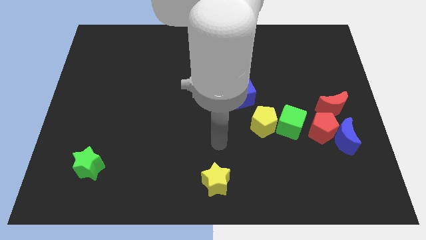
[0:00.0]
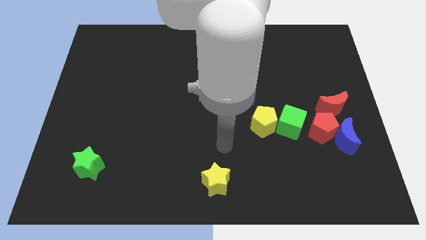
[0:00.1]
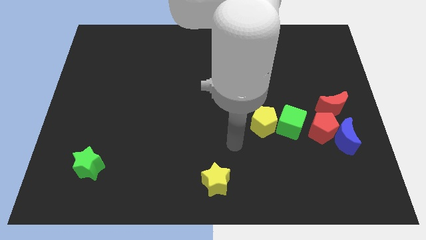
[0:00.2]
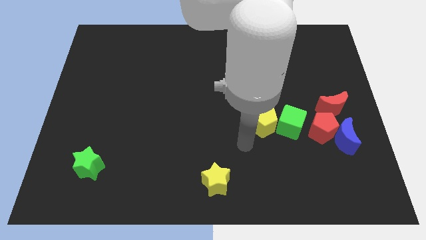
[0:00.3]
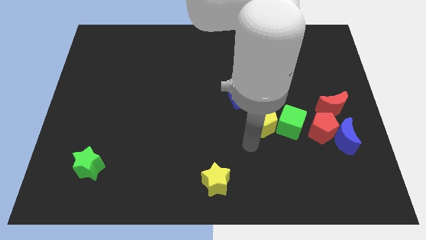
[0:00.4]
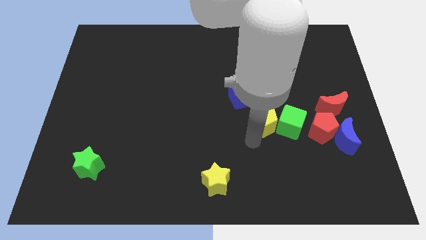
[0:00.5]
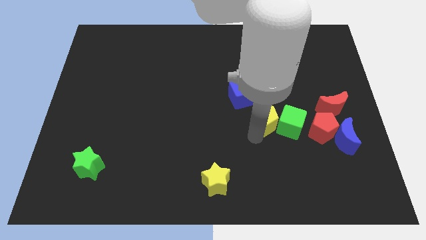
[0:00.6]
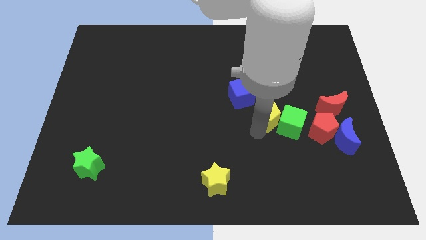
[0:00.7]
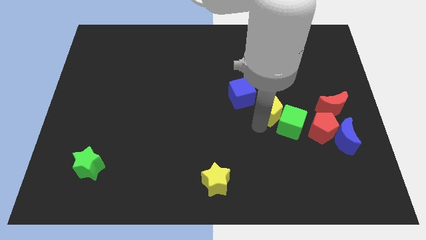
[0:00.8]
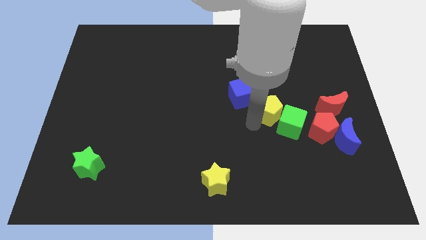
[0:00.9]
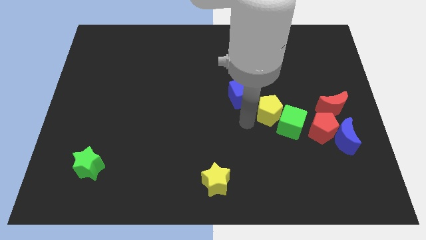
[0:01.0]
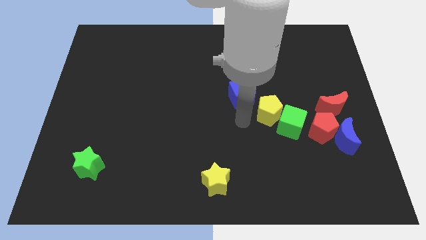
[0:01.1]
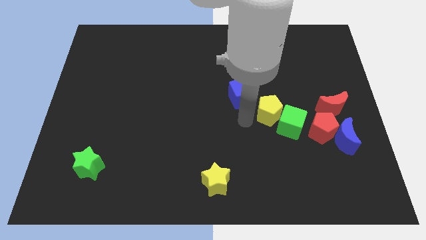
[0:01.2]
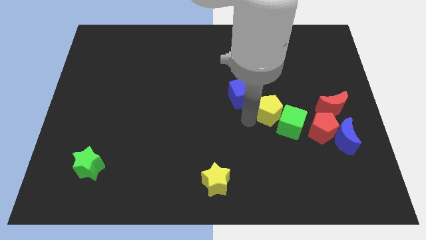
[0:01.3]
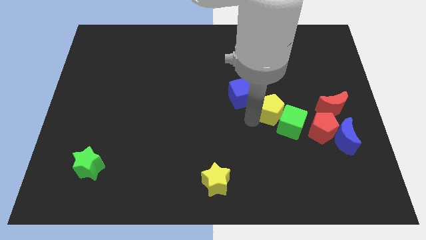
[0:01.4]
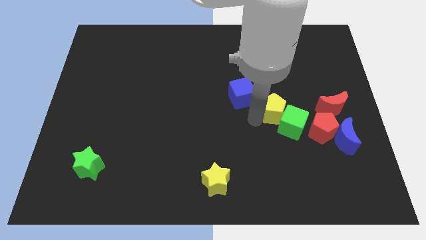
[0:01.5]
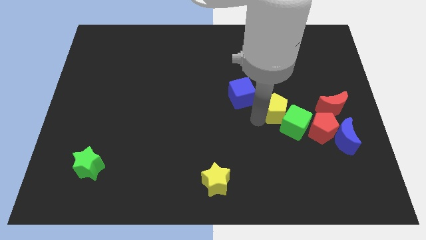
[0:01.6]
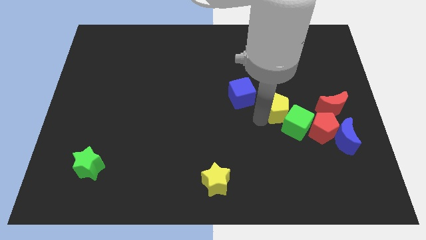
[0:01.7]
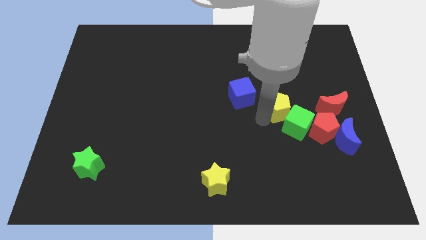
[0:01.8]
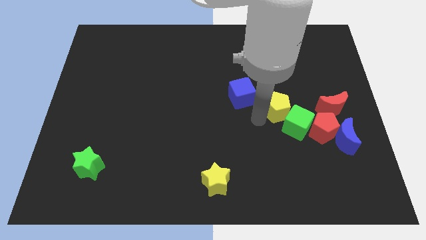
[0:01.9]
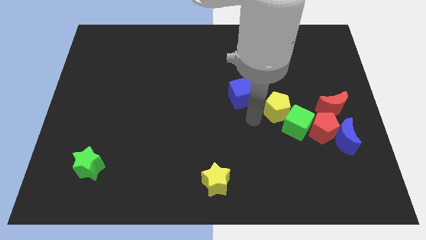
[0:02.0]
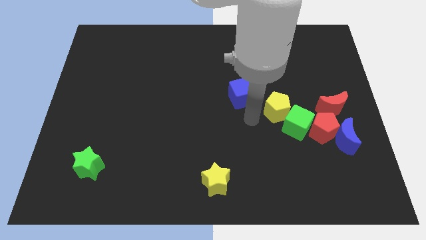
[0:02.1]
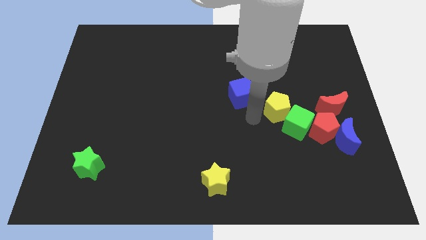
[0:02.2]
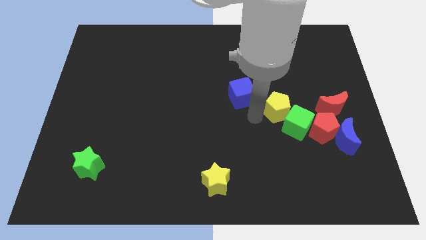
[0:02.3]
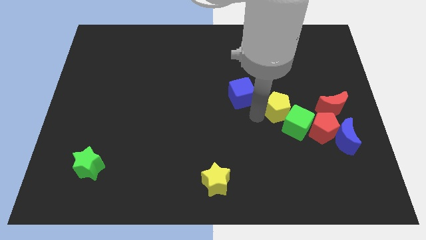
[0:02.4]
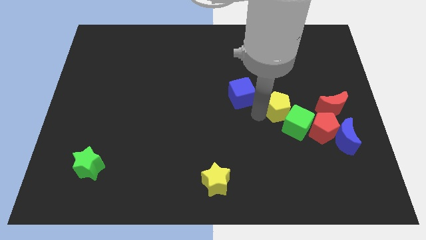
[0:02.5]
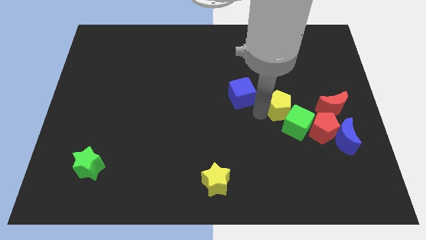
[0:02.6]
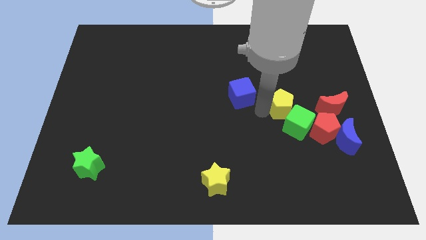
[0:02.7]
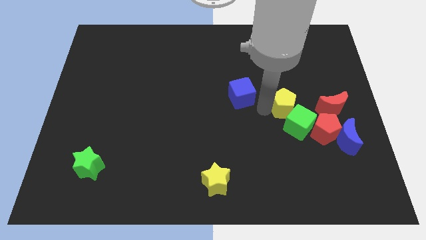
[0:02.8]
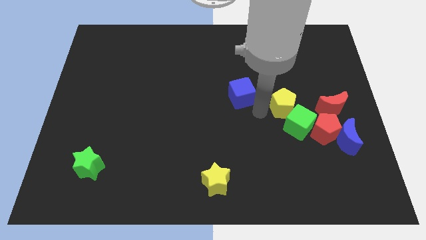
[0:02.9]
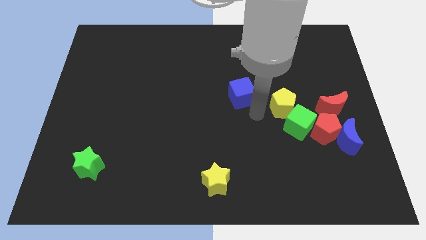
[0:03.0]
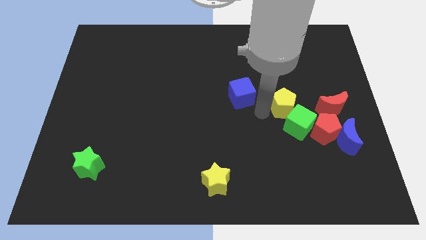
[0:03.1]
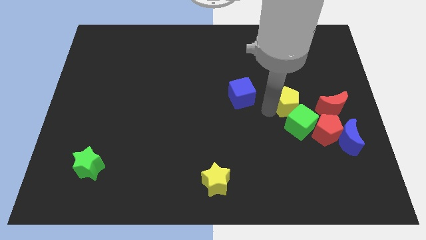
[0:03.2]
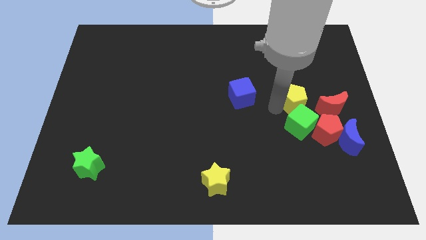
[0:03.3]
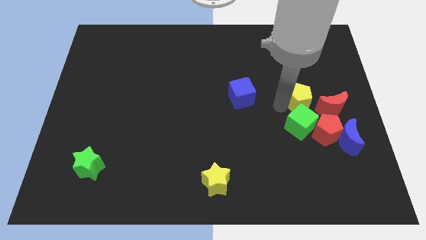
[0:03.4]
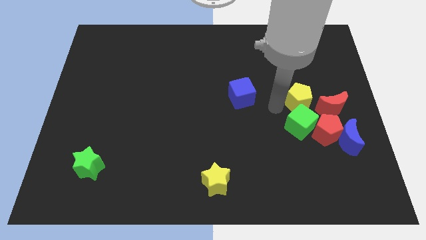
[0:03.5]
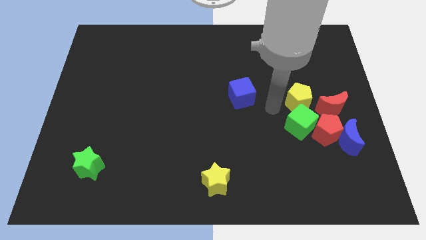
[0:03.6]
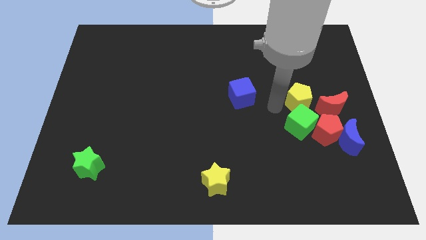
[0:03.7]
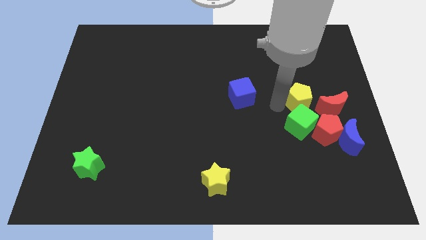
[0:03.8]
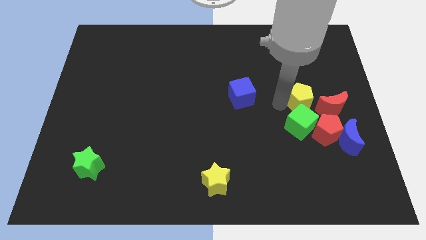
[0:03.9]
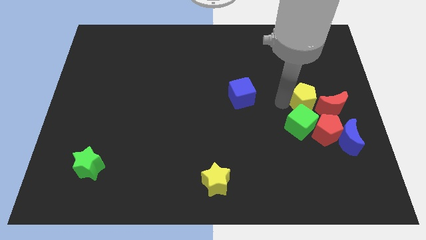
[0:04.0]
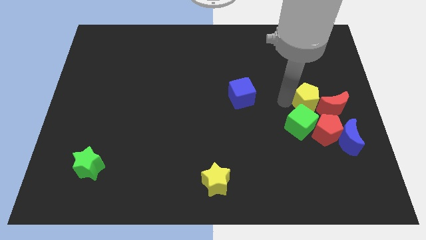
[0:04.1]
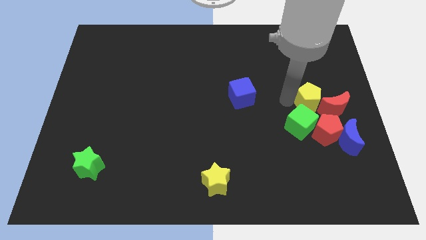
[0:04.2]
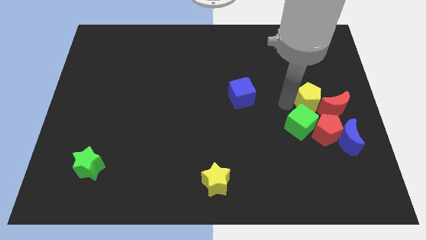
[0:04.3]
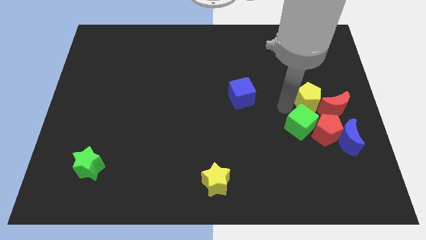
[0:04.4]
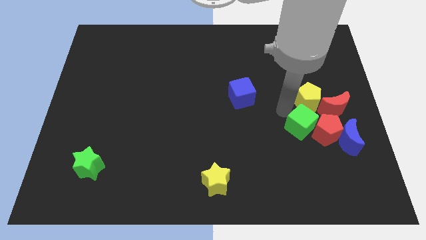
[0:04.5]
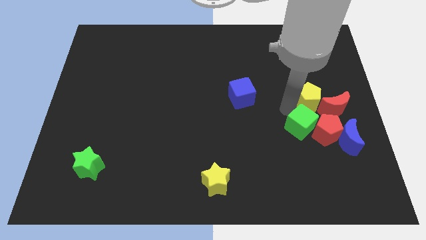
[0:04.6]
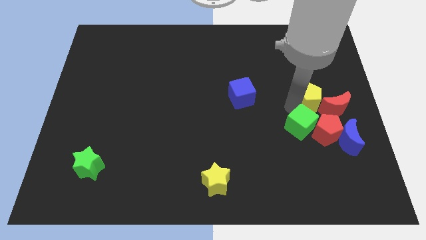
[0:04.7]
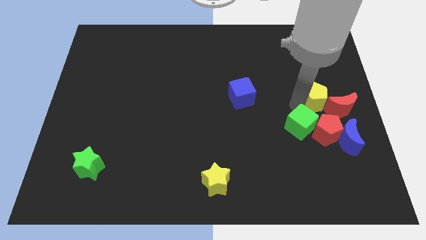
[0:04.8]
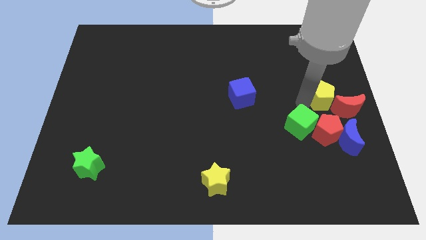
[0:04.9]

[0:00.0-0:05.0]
move the yellow pentagon to the right side

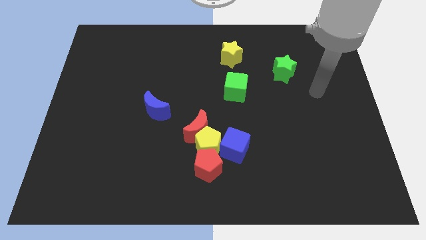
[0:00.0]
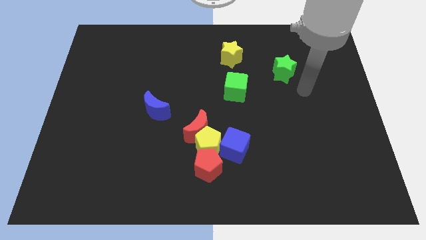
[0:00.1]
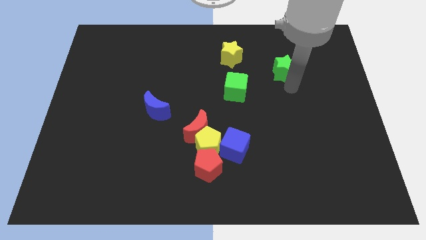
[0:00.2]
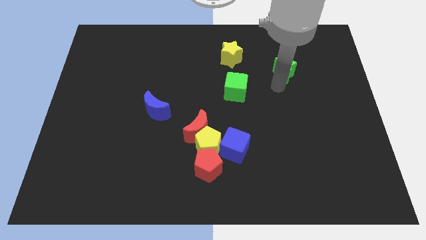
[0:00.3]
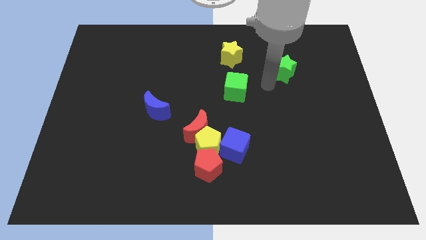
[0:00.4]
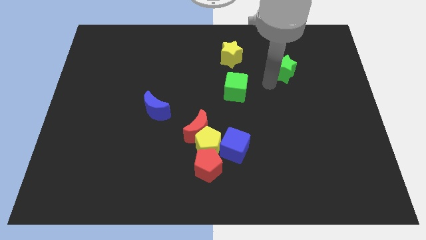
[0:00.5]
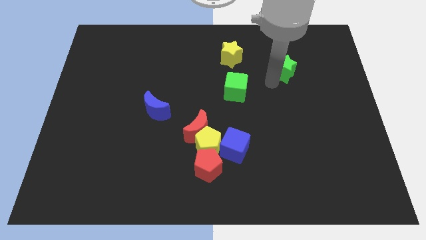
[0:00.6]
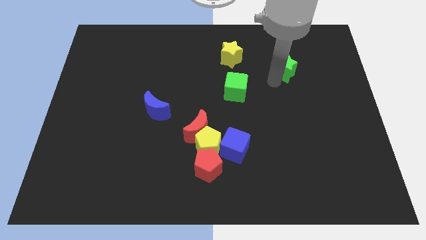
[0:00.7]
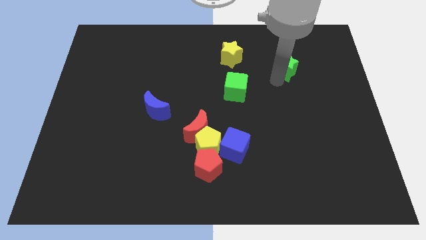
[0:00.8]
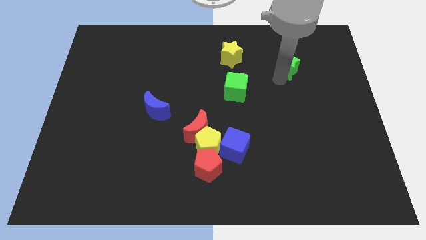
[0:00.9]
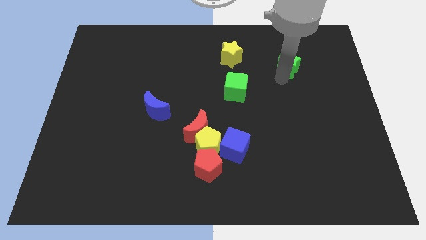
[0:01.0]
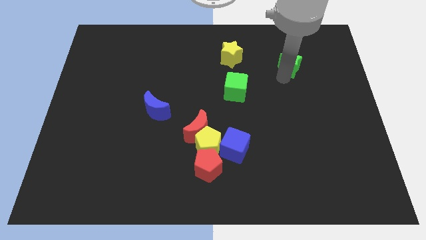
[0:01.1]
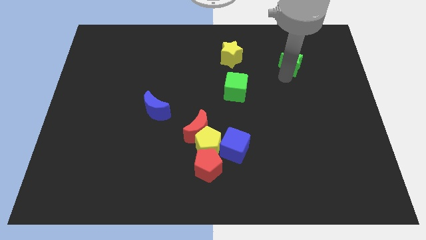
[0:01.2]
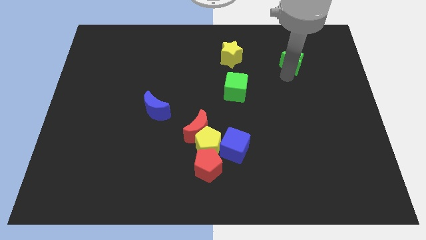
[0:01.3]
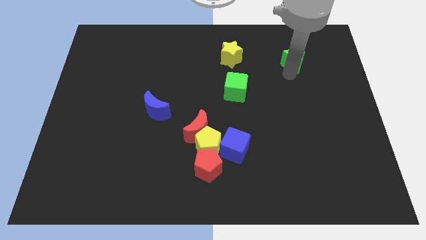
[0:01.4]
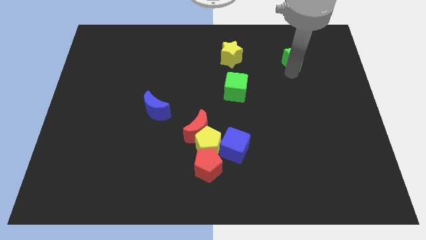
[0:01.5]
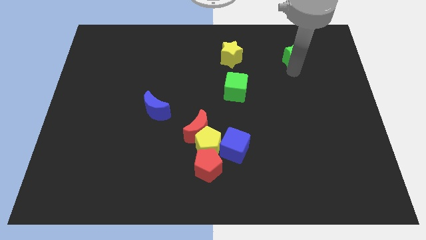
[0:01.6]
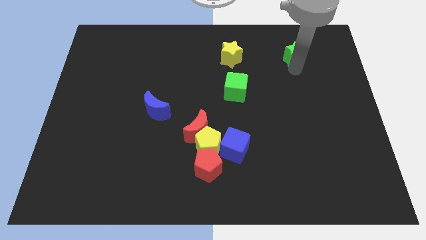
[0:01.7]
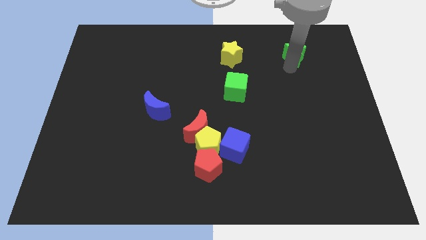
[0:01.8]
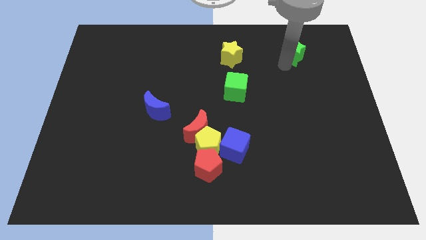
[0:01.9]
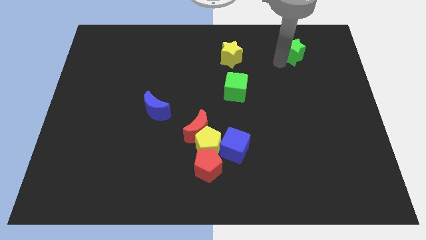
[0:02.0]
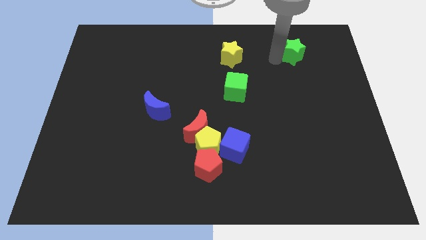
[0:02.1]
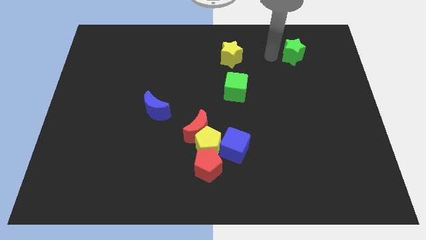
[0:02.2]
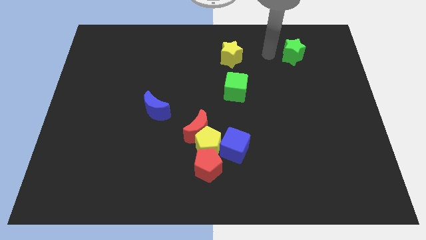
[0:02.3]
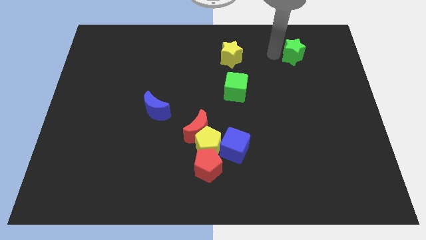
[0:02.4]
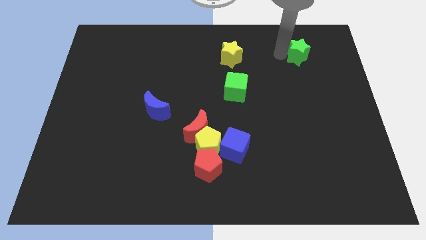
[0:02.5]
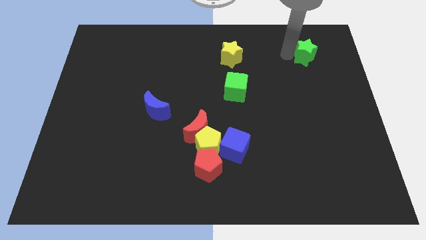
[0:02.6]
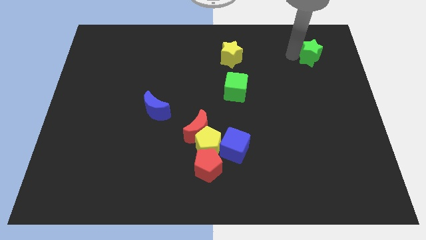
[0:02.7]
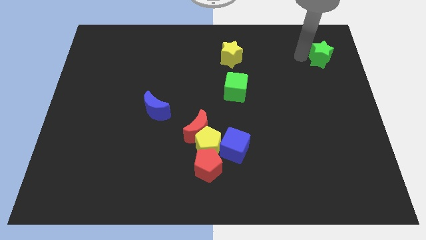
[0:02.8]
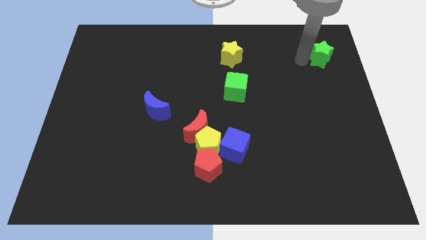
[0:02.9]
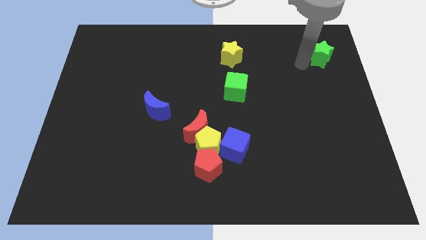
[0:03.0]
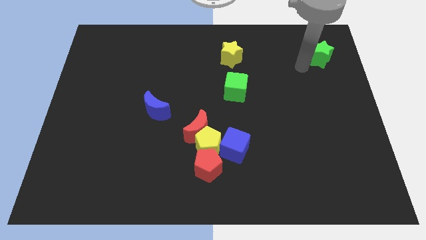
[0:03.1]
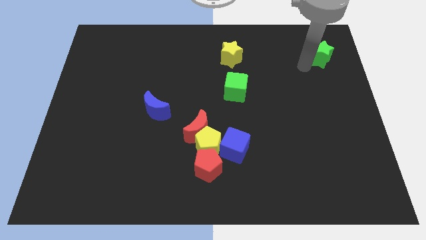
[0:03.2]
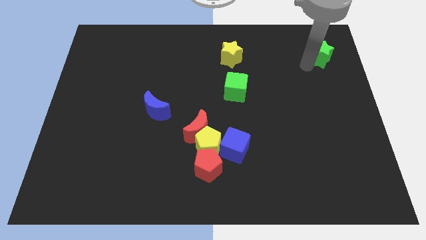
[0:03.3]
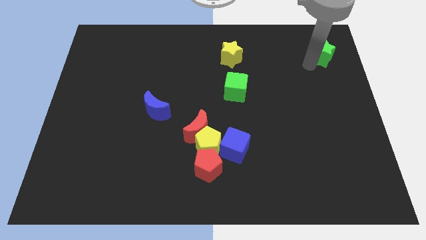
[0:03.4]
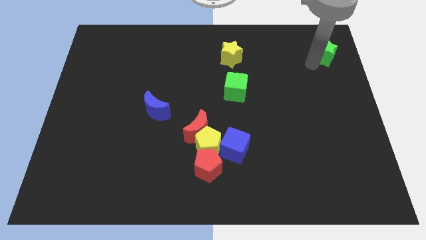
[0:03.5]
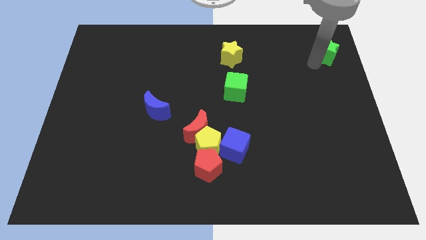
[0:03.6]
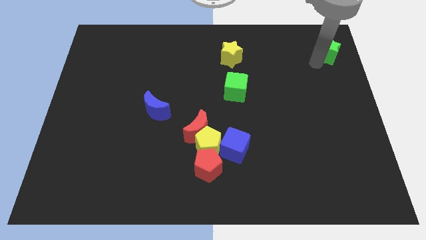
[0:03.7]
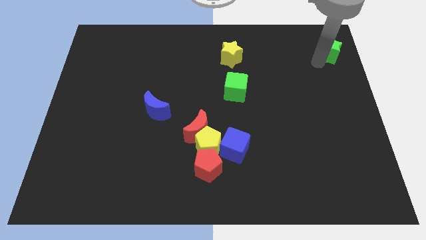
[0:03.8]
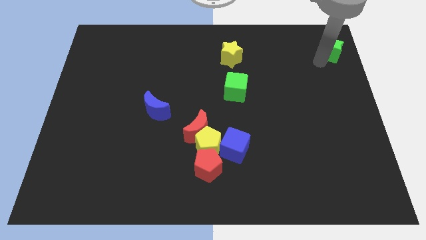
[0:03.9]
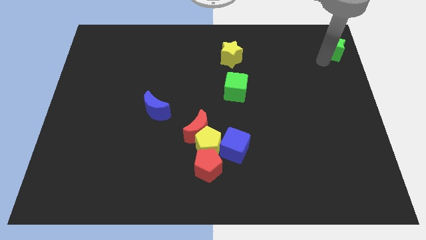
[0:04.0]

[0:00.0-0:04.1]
push the green star to the top right of the board
